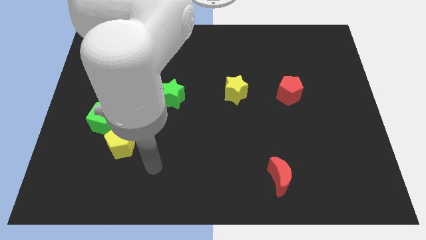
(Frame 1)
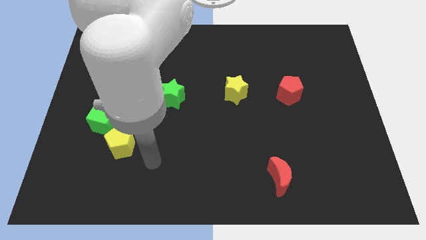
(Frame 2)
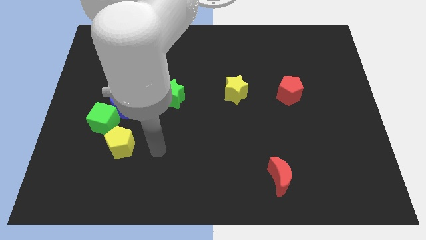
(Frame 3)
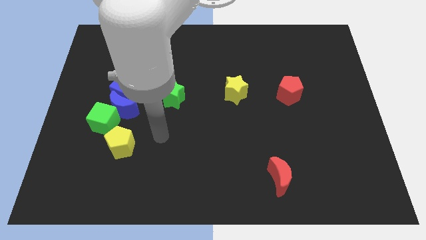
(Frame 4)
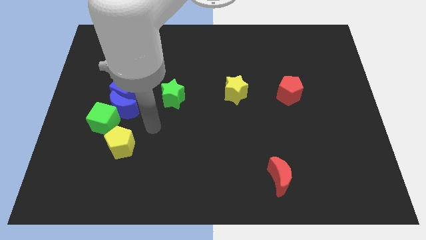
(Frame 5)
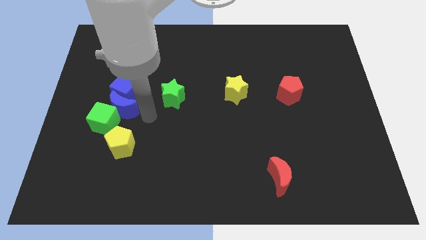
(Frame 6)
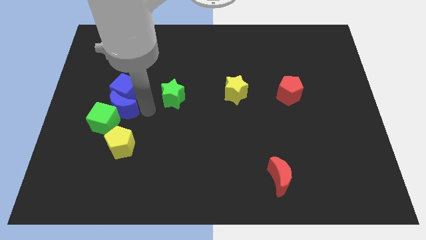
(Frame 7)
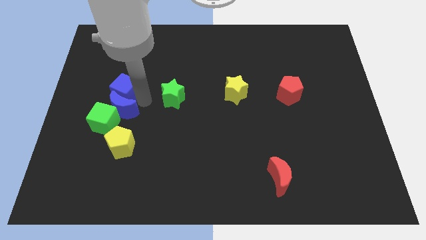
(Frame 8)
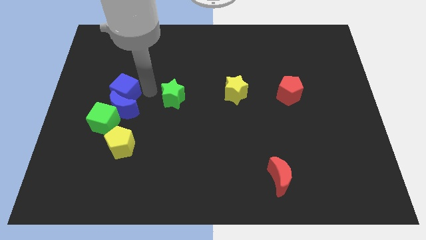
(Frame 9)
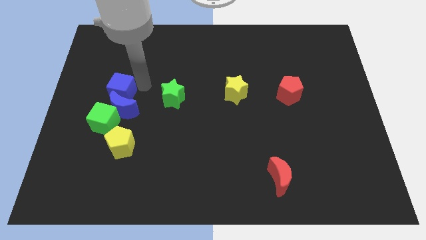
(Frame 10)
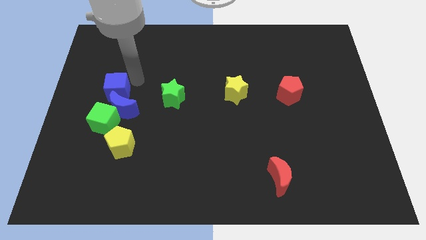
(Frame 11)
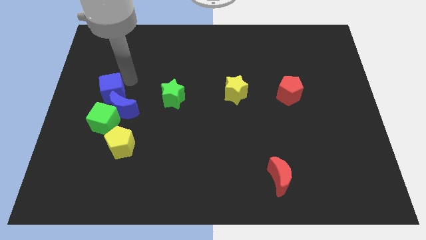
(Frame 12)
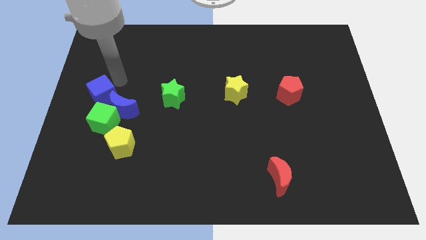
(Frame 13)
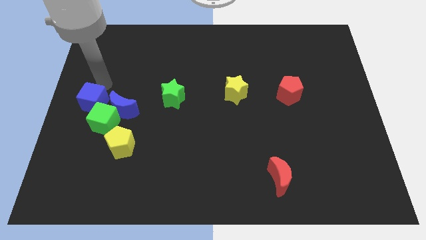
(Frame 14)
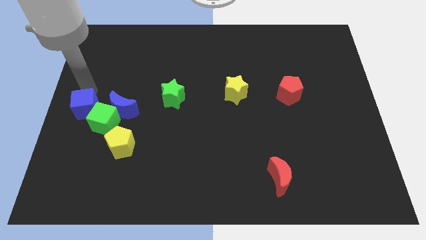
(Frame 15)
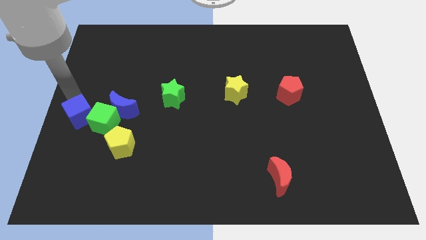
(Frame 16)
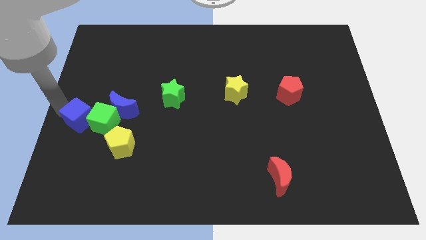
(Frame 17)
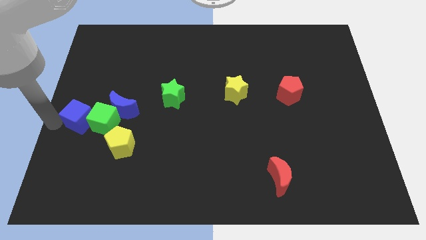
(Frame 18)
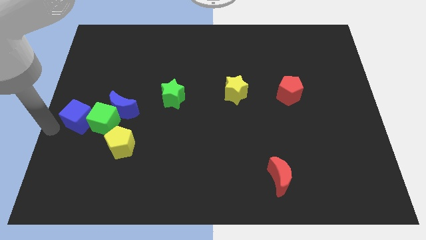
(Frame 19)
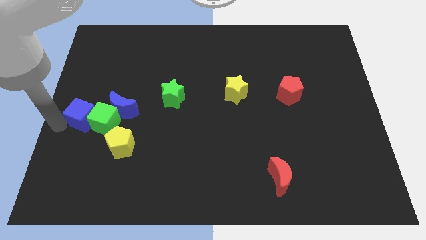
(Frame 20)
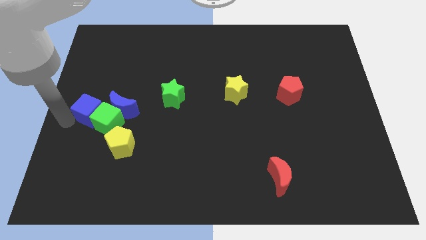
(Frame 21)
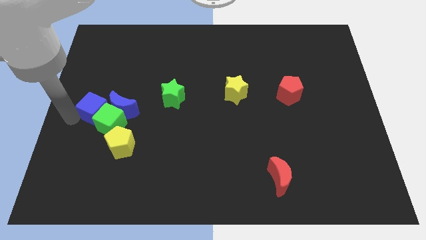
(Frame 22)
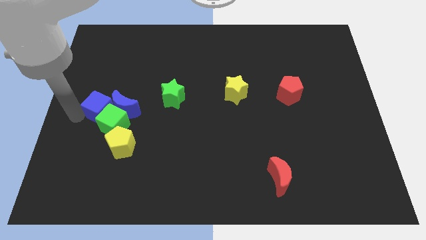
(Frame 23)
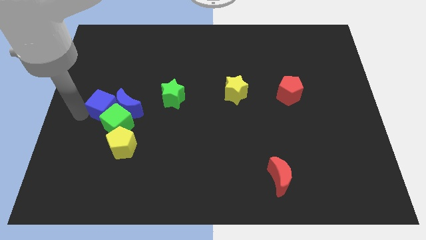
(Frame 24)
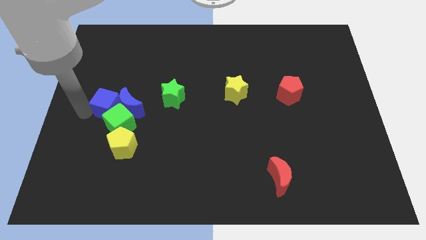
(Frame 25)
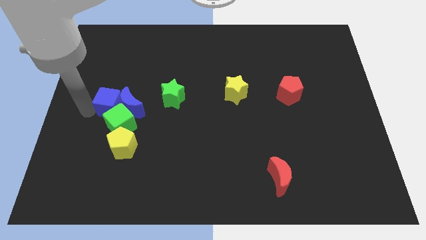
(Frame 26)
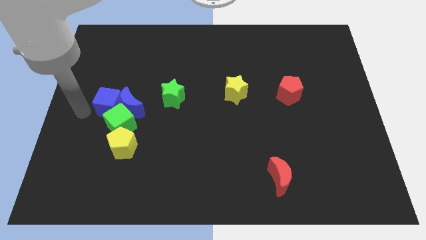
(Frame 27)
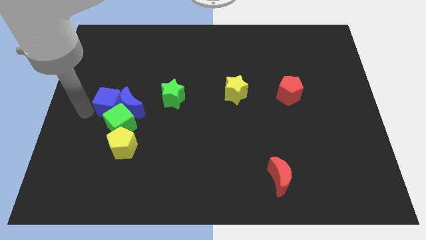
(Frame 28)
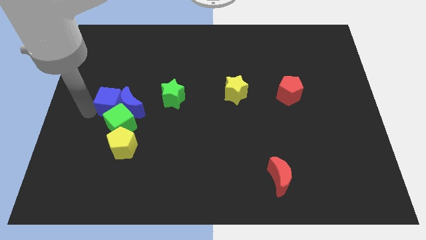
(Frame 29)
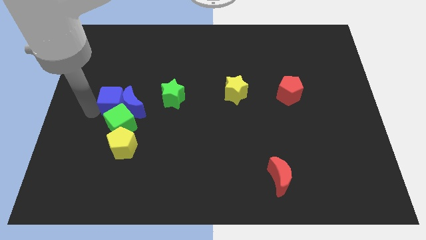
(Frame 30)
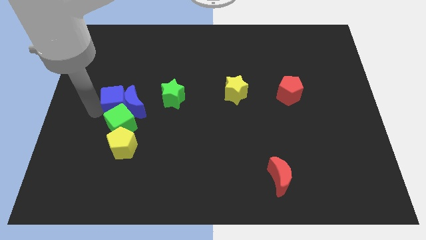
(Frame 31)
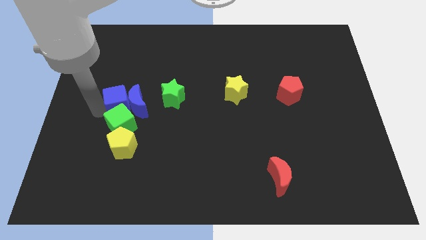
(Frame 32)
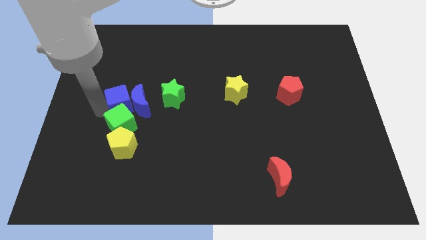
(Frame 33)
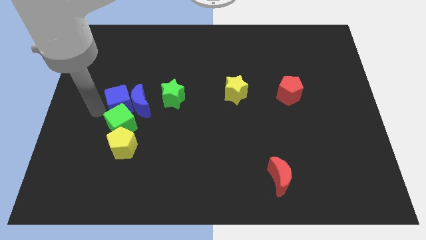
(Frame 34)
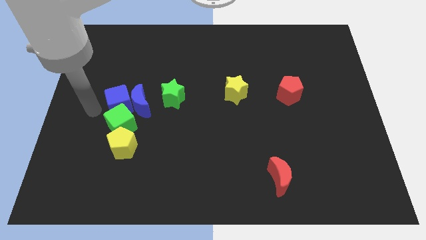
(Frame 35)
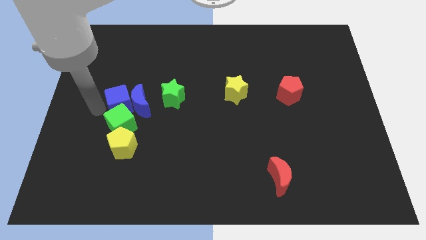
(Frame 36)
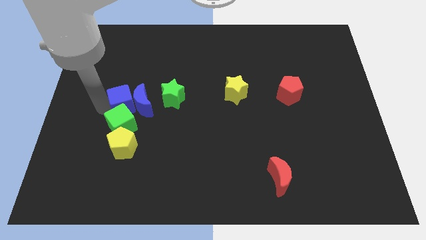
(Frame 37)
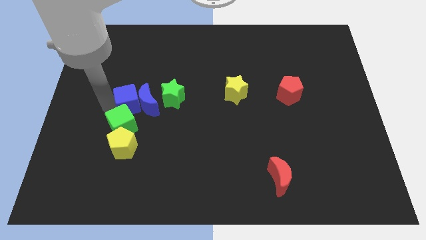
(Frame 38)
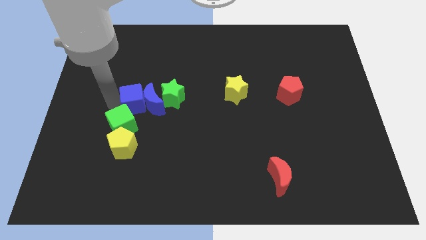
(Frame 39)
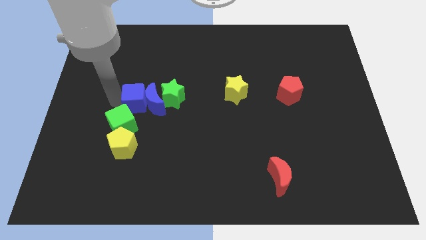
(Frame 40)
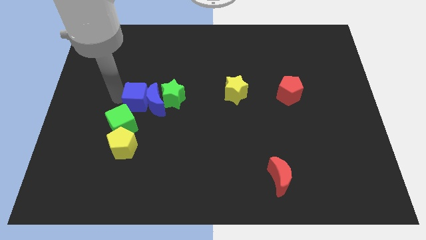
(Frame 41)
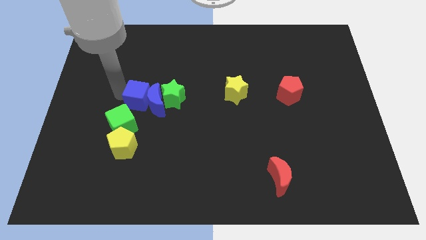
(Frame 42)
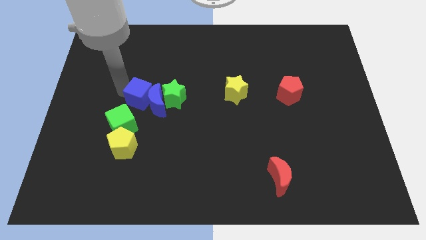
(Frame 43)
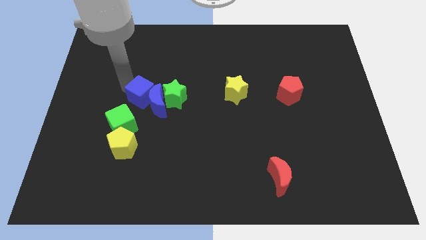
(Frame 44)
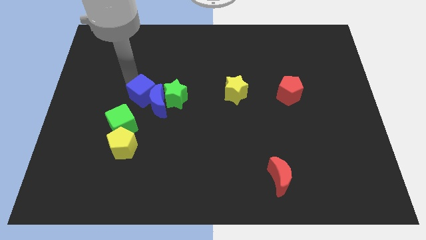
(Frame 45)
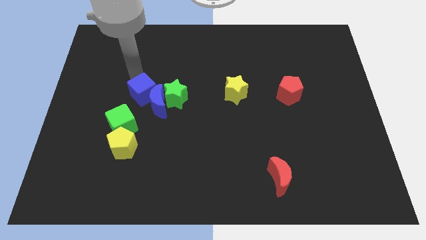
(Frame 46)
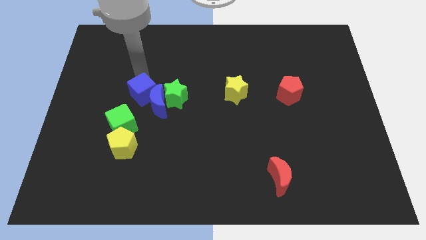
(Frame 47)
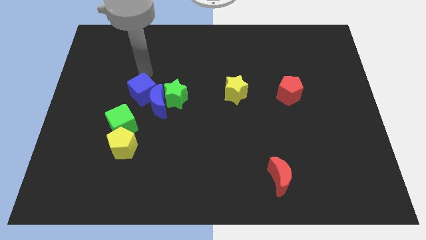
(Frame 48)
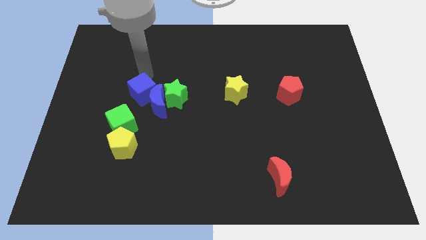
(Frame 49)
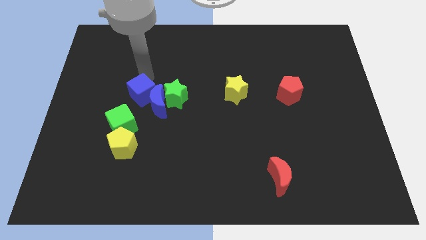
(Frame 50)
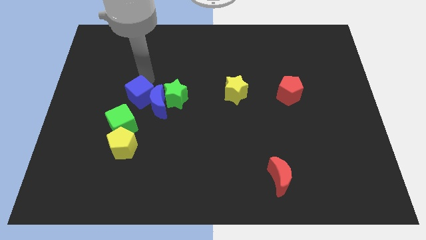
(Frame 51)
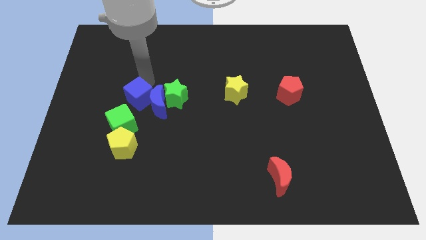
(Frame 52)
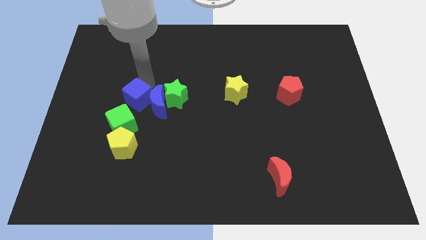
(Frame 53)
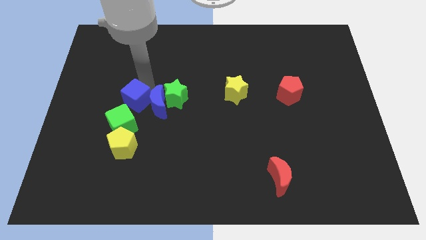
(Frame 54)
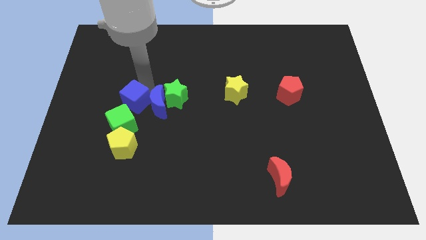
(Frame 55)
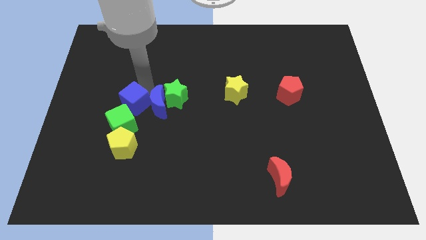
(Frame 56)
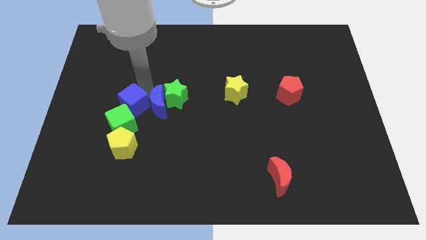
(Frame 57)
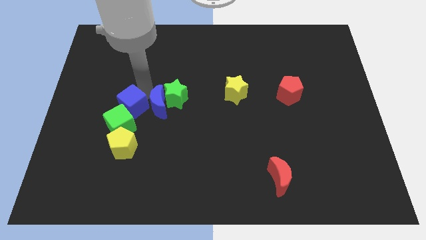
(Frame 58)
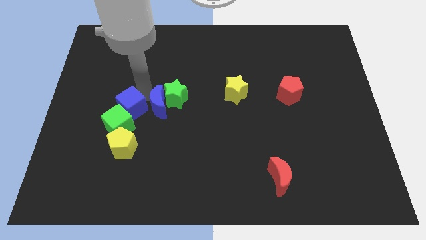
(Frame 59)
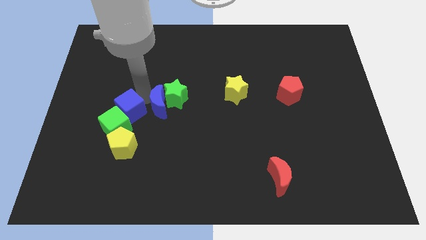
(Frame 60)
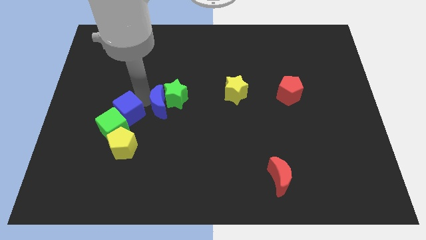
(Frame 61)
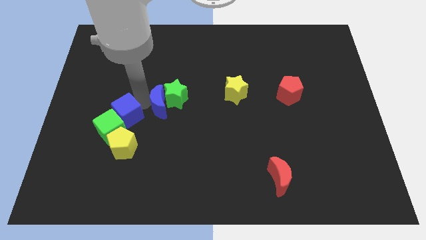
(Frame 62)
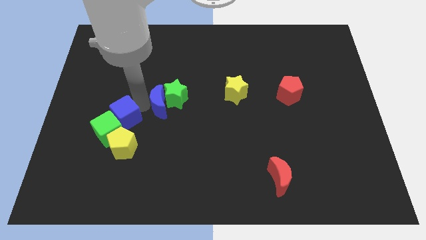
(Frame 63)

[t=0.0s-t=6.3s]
move the blue cube down slightly

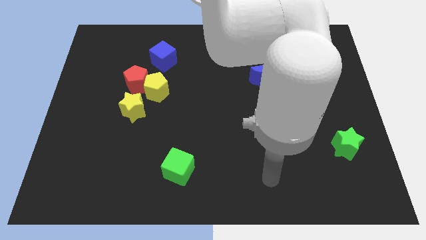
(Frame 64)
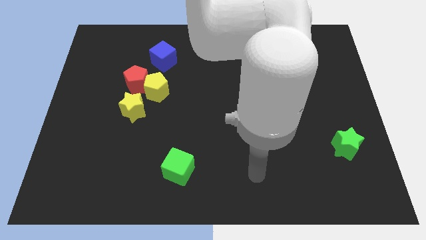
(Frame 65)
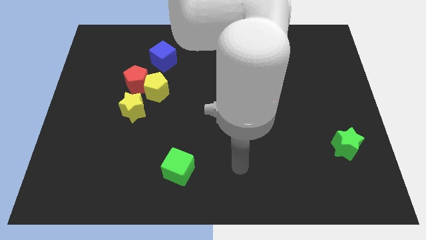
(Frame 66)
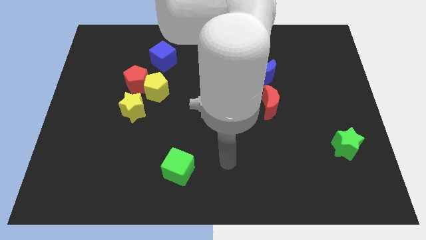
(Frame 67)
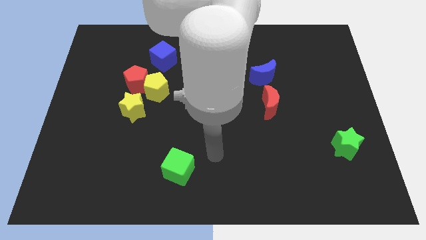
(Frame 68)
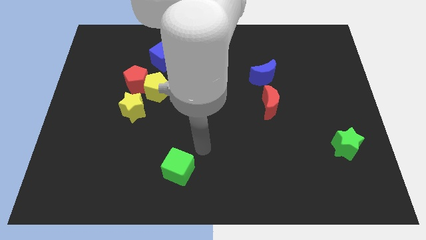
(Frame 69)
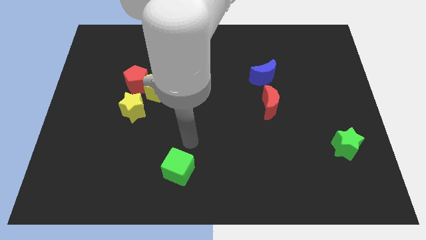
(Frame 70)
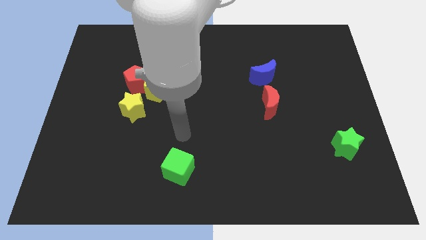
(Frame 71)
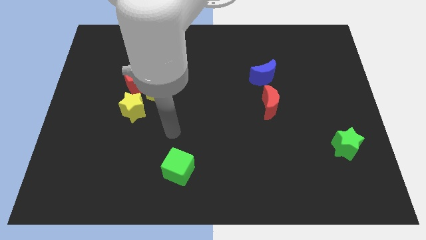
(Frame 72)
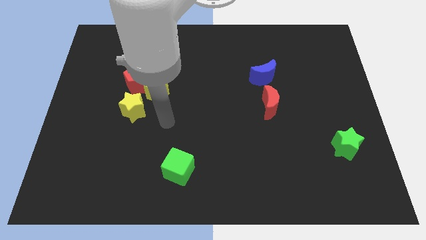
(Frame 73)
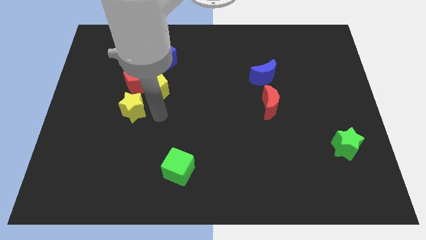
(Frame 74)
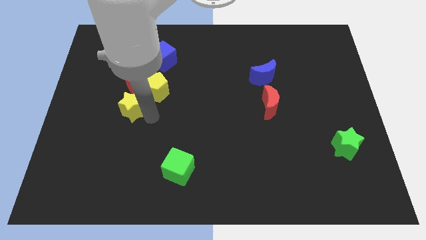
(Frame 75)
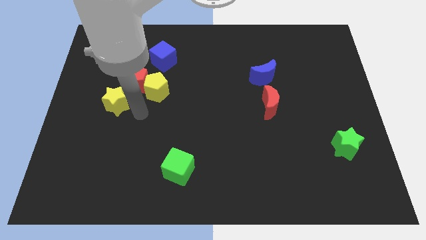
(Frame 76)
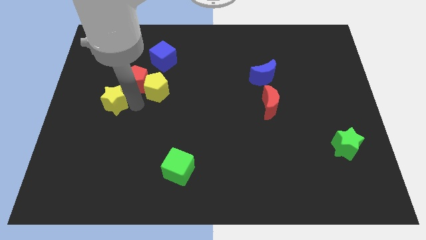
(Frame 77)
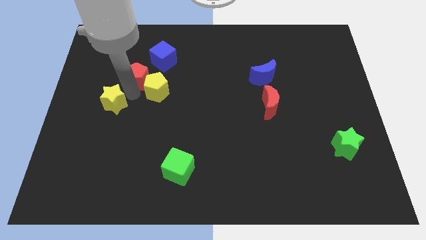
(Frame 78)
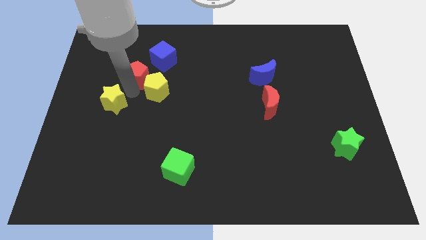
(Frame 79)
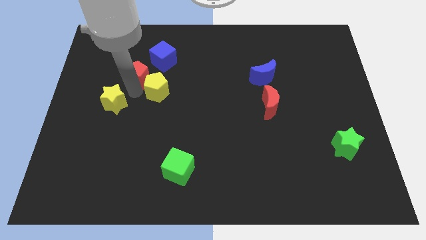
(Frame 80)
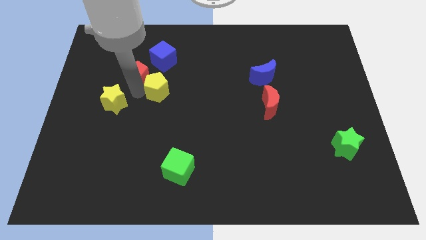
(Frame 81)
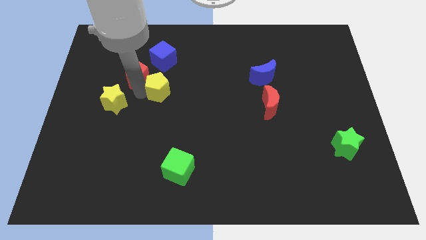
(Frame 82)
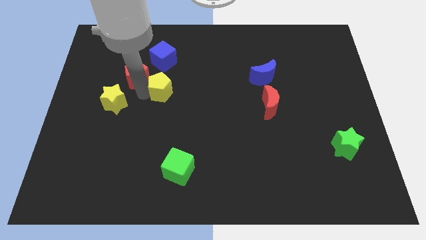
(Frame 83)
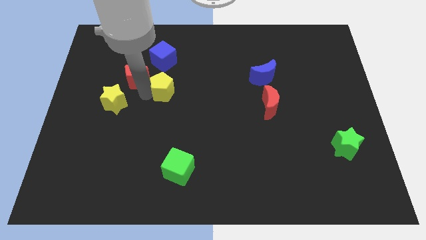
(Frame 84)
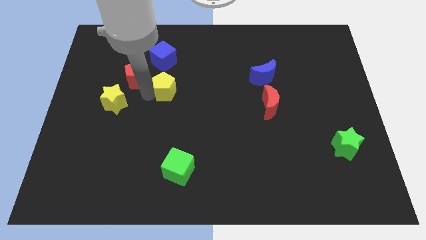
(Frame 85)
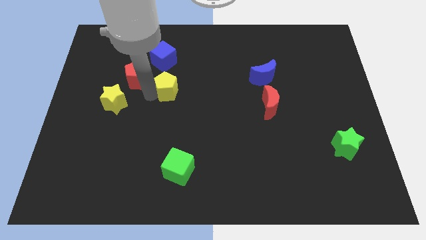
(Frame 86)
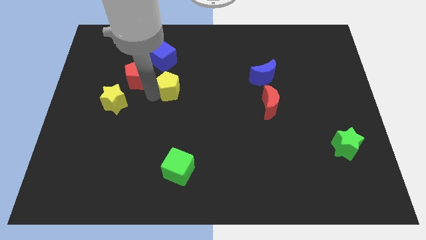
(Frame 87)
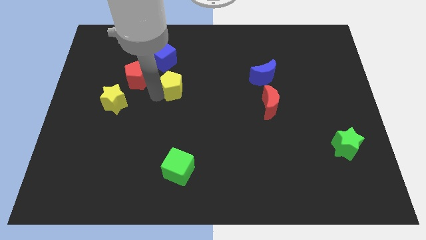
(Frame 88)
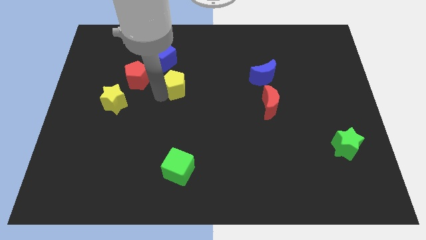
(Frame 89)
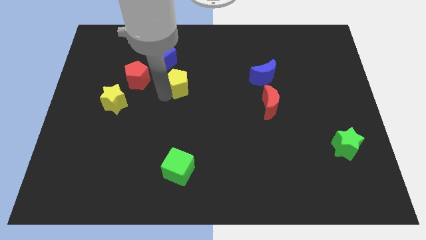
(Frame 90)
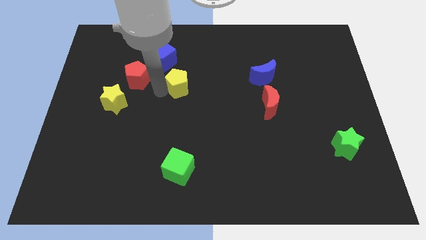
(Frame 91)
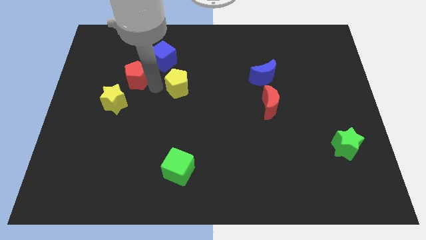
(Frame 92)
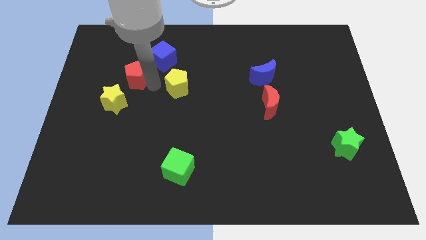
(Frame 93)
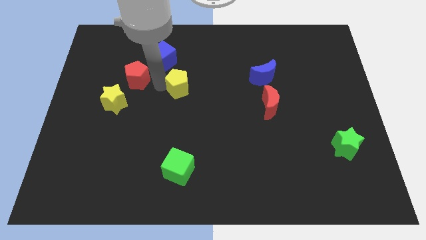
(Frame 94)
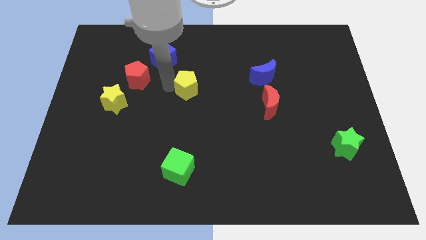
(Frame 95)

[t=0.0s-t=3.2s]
move the yellow pentagon right a little bit
